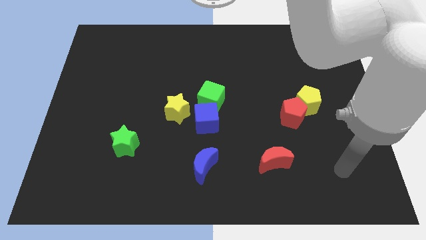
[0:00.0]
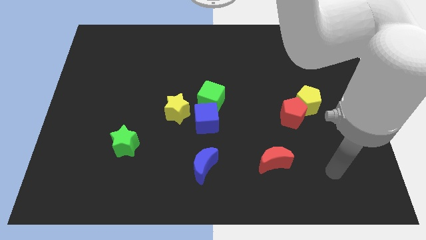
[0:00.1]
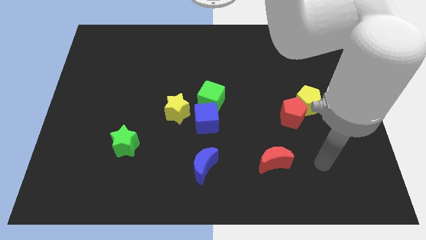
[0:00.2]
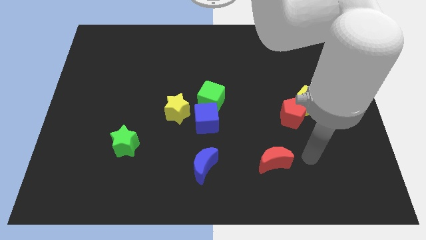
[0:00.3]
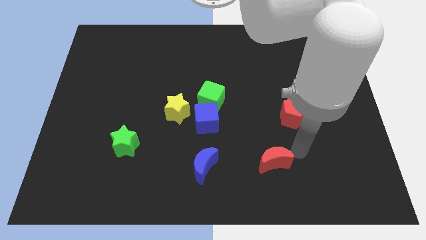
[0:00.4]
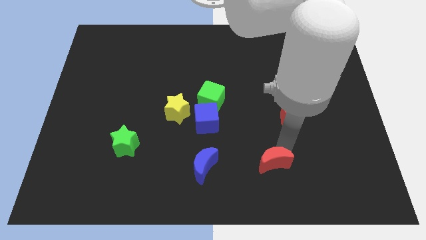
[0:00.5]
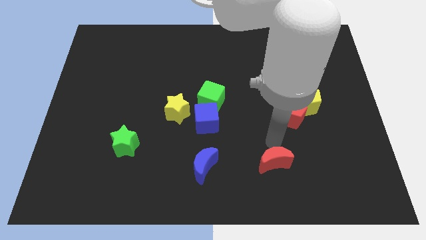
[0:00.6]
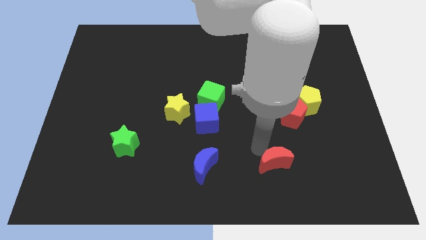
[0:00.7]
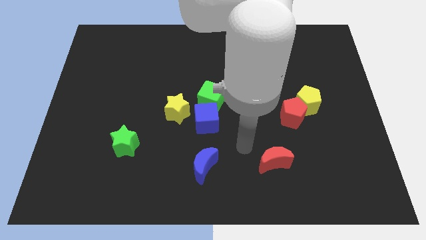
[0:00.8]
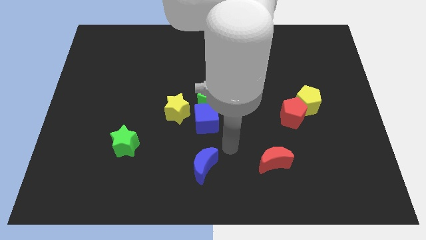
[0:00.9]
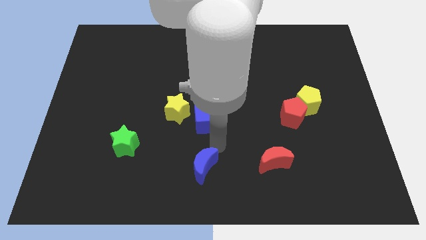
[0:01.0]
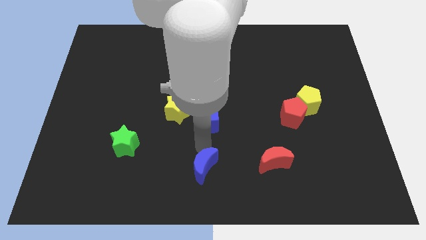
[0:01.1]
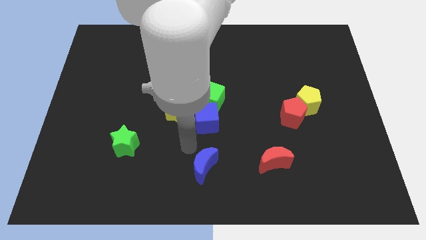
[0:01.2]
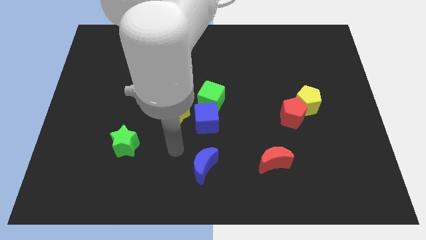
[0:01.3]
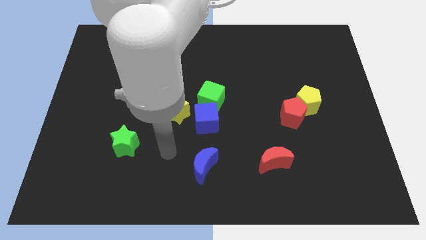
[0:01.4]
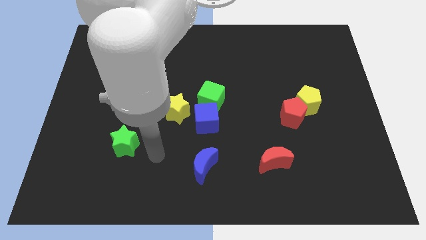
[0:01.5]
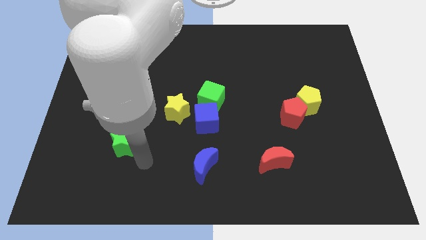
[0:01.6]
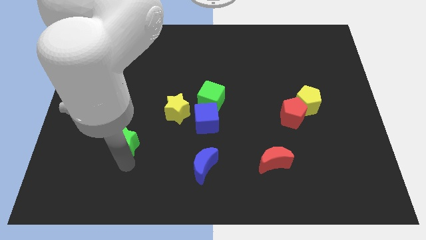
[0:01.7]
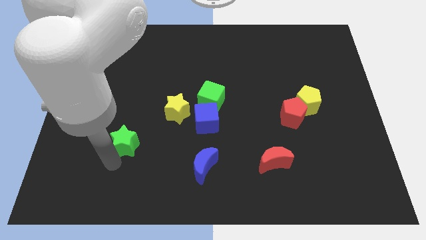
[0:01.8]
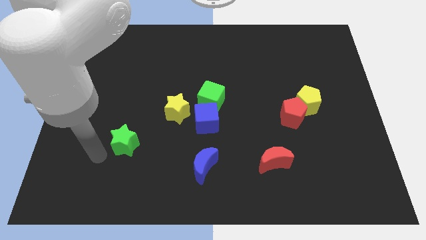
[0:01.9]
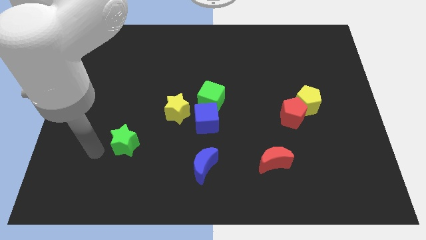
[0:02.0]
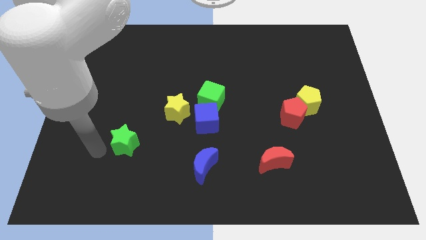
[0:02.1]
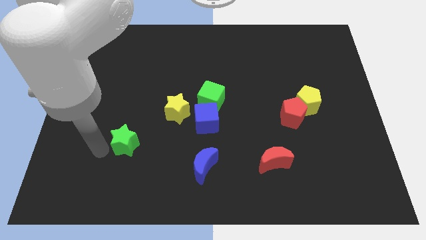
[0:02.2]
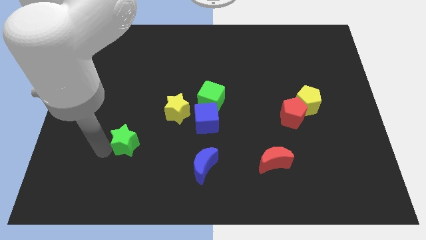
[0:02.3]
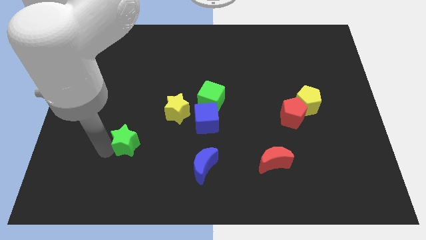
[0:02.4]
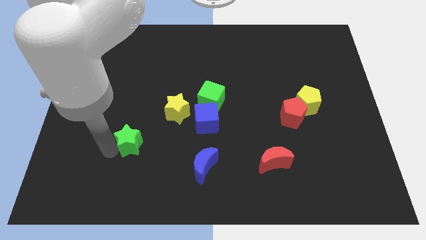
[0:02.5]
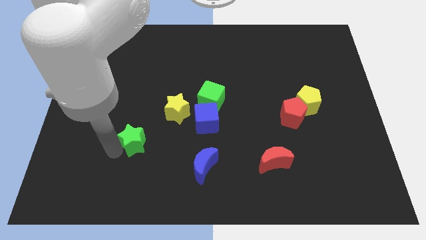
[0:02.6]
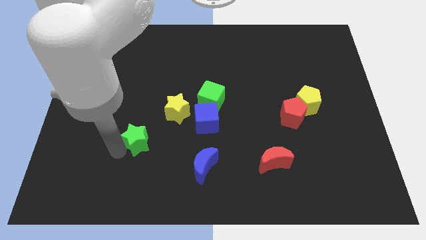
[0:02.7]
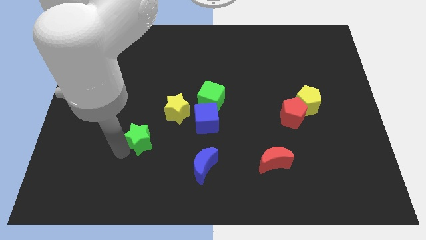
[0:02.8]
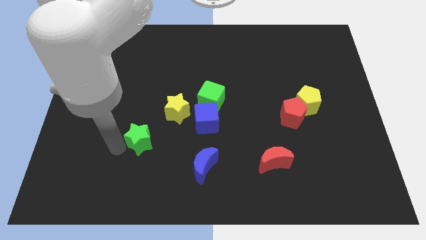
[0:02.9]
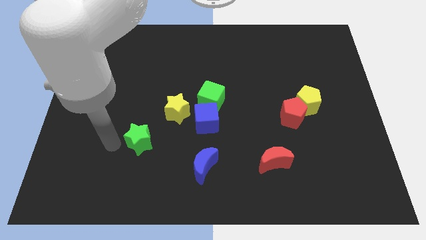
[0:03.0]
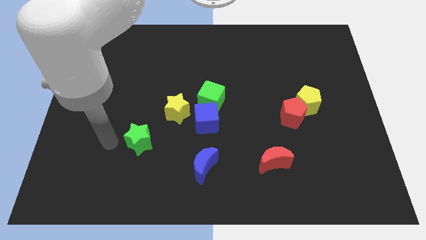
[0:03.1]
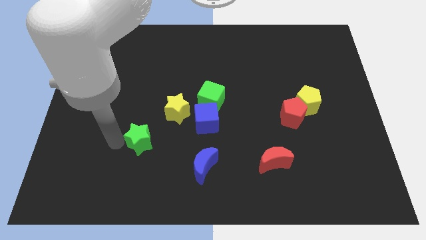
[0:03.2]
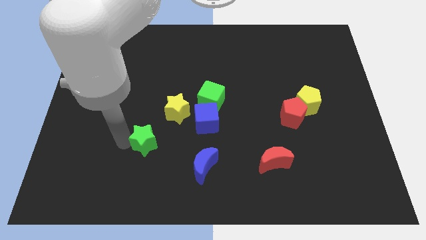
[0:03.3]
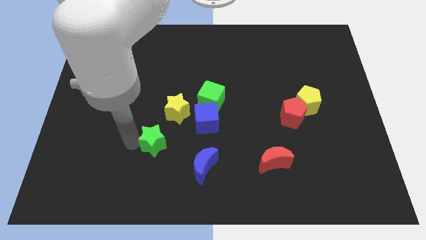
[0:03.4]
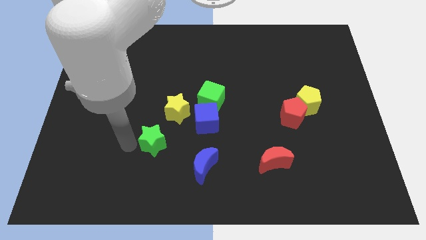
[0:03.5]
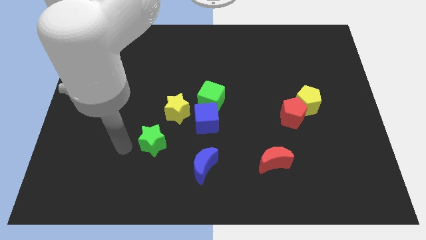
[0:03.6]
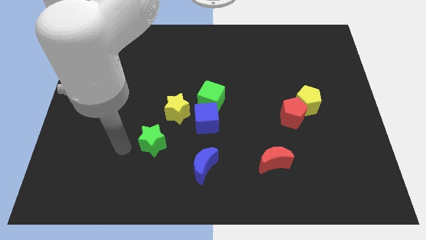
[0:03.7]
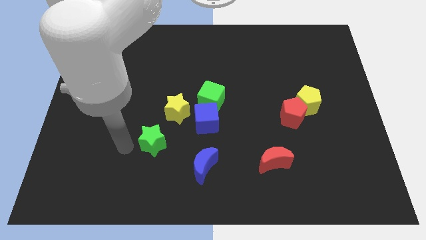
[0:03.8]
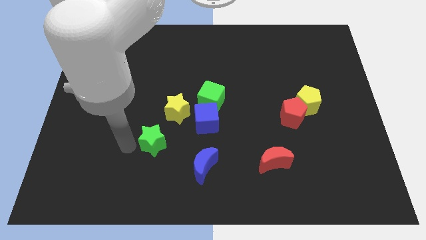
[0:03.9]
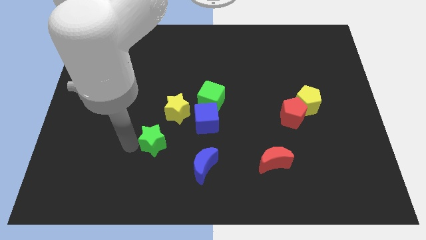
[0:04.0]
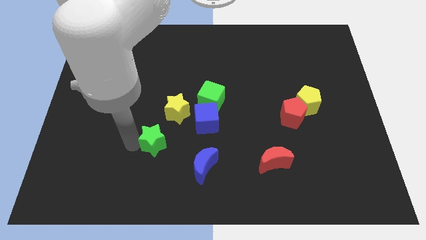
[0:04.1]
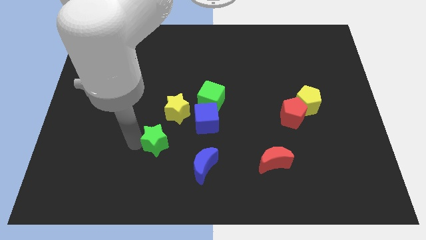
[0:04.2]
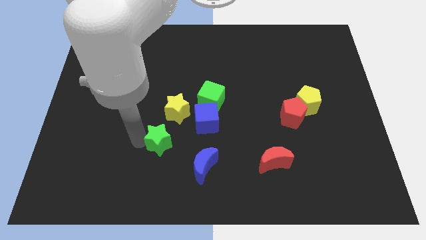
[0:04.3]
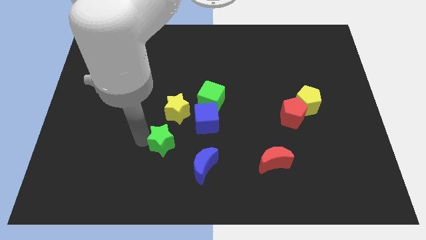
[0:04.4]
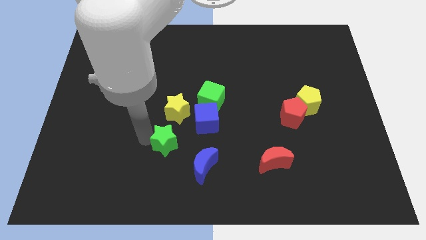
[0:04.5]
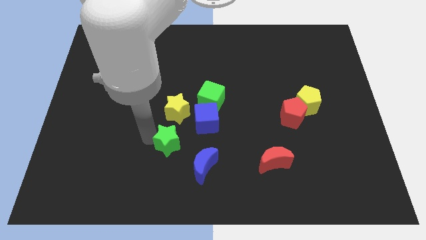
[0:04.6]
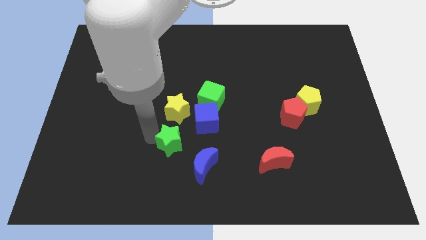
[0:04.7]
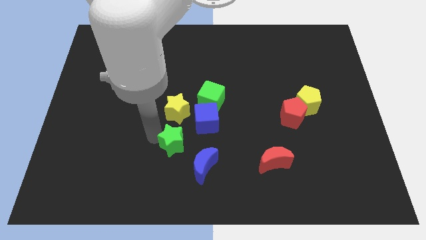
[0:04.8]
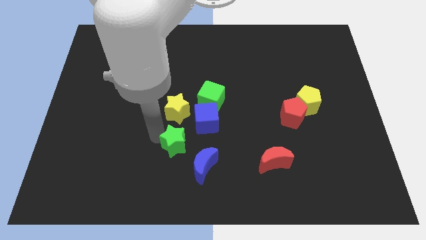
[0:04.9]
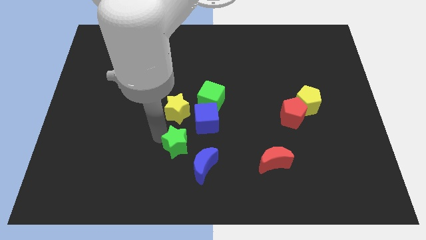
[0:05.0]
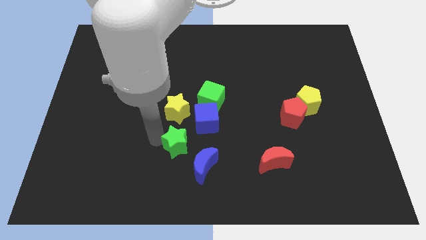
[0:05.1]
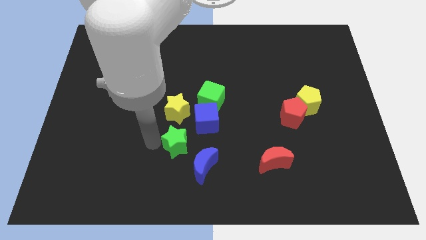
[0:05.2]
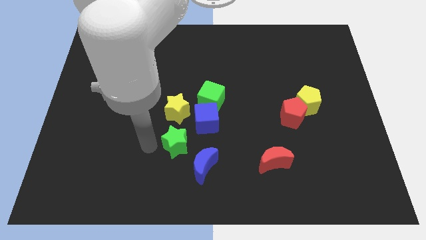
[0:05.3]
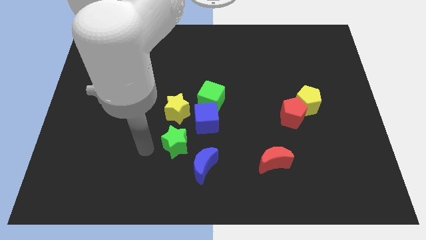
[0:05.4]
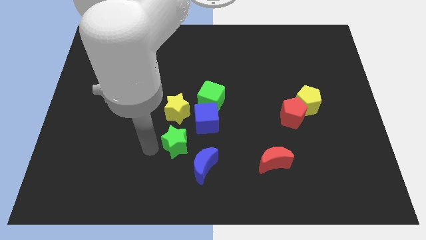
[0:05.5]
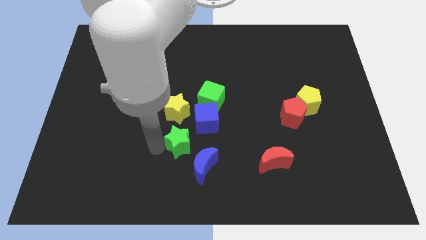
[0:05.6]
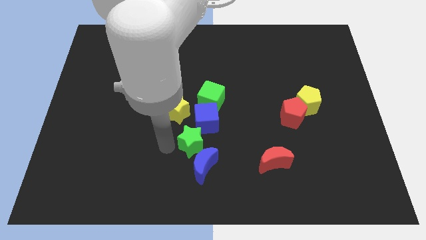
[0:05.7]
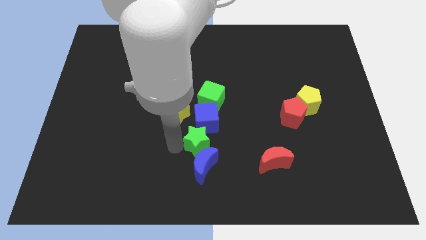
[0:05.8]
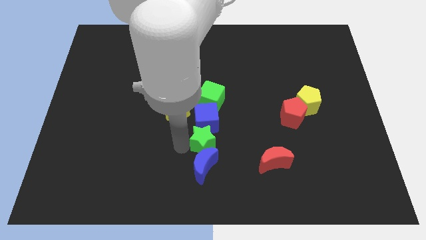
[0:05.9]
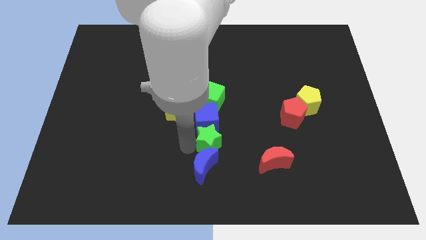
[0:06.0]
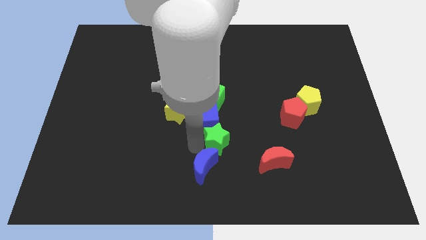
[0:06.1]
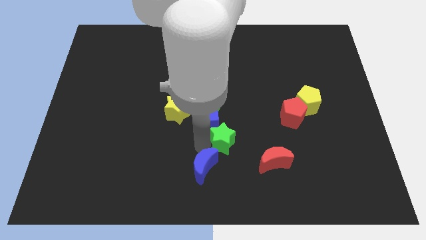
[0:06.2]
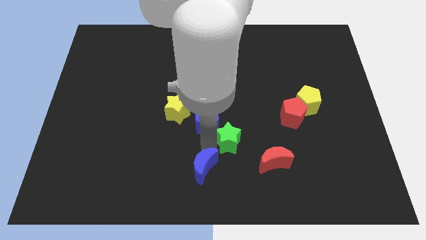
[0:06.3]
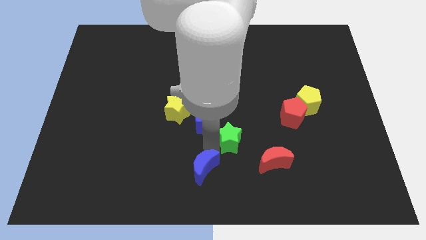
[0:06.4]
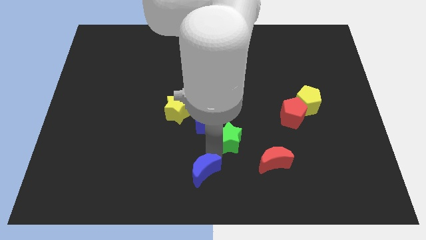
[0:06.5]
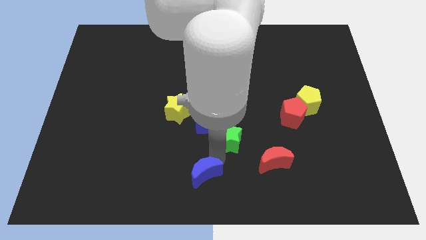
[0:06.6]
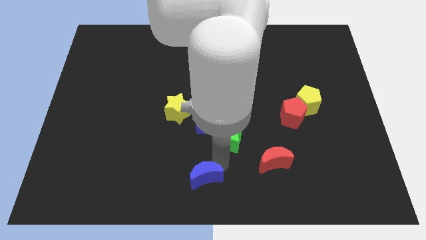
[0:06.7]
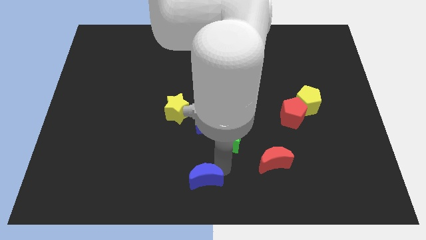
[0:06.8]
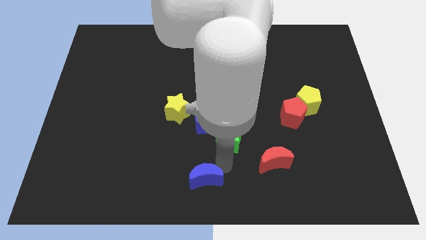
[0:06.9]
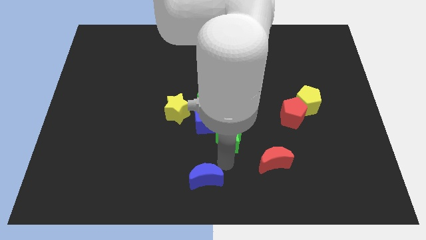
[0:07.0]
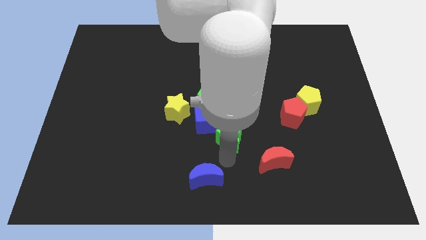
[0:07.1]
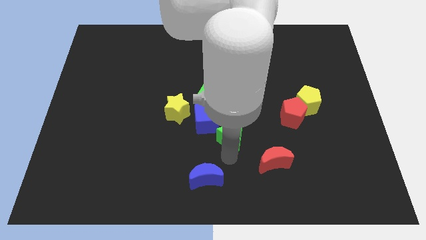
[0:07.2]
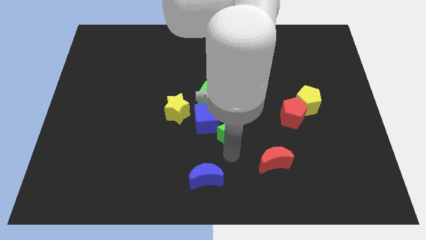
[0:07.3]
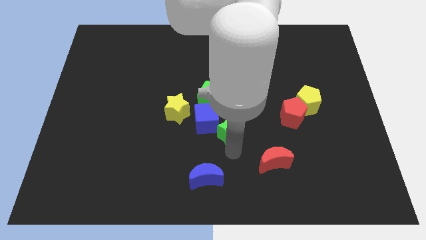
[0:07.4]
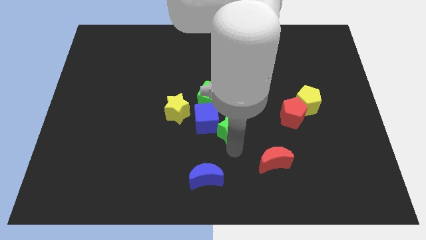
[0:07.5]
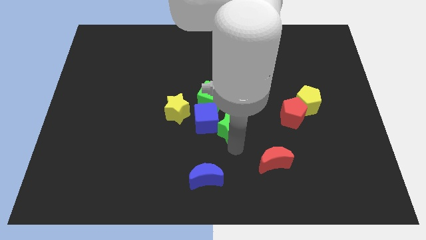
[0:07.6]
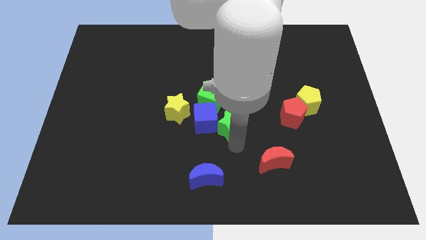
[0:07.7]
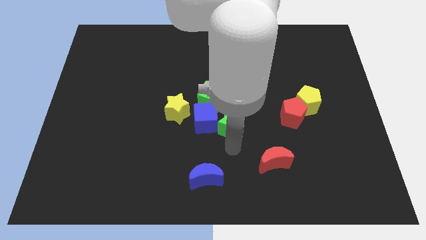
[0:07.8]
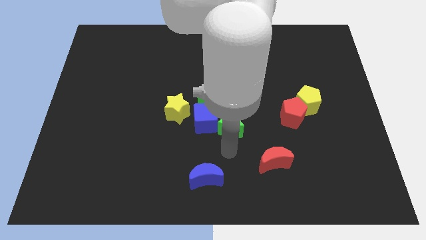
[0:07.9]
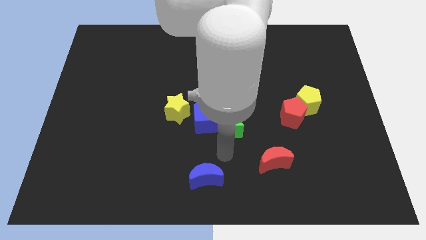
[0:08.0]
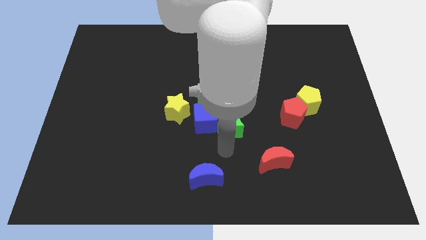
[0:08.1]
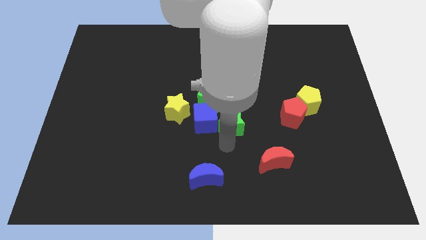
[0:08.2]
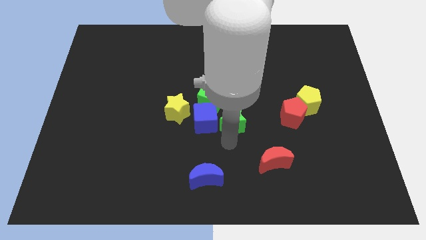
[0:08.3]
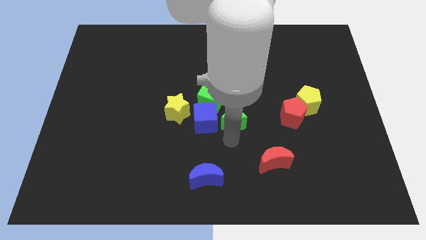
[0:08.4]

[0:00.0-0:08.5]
slide the green star diagonally up and to the right of the blue cube
